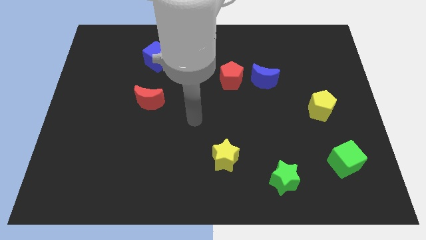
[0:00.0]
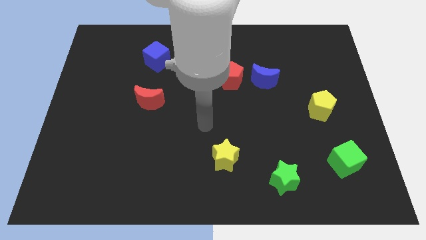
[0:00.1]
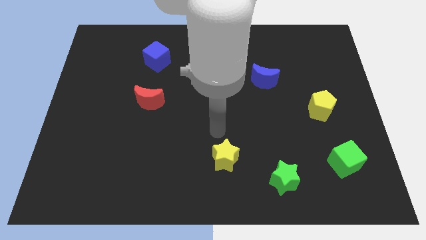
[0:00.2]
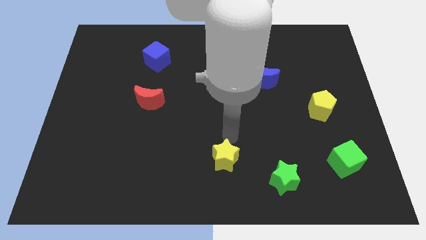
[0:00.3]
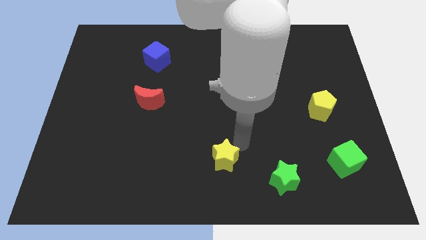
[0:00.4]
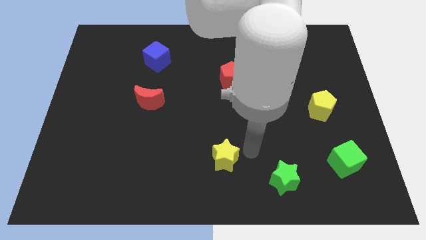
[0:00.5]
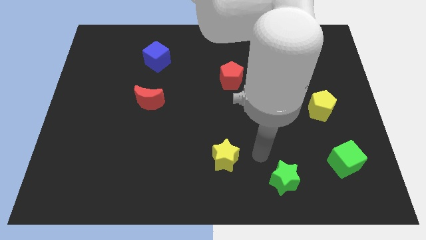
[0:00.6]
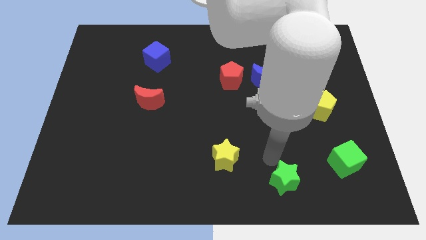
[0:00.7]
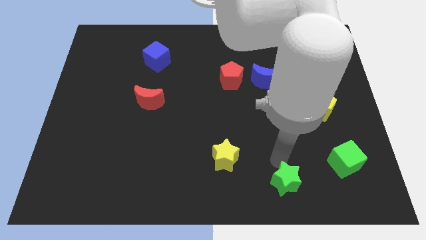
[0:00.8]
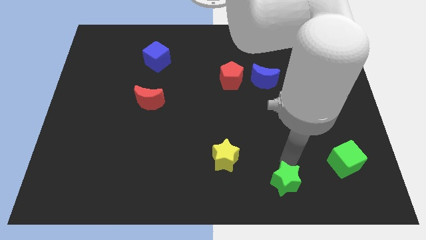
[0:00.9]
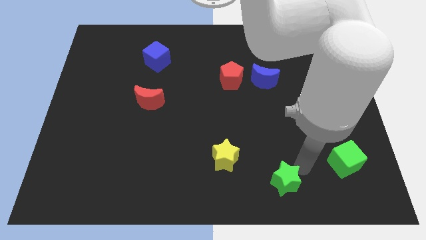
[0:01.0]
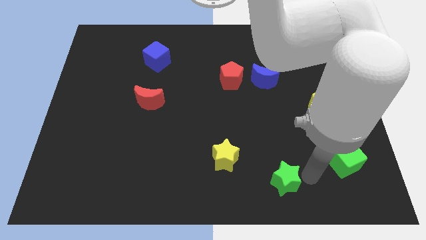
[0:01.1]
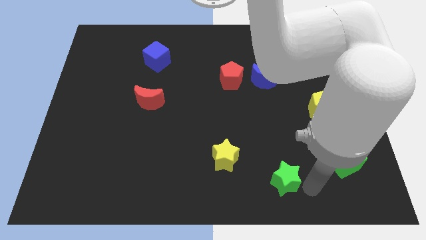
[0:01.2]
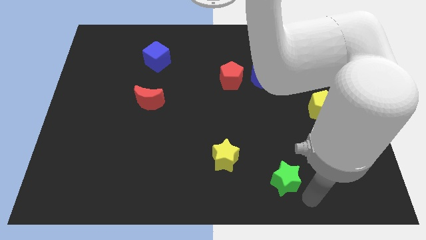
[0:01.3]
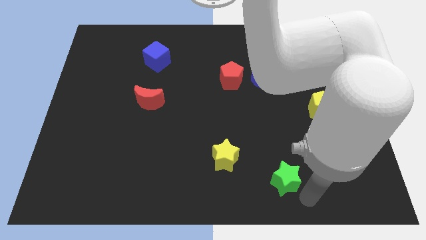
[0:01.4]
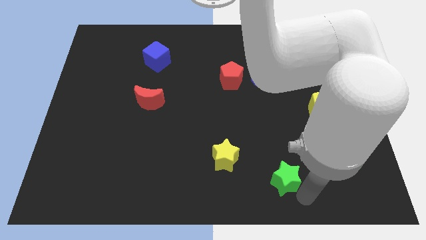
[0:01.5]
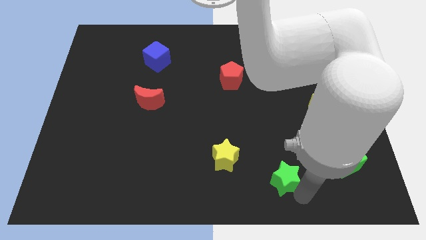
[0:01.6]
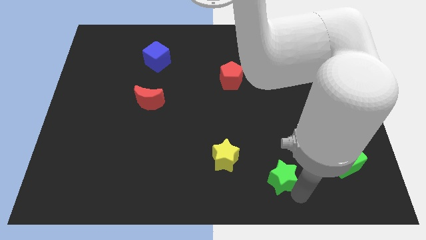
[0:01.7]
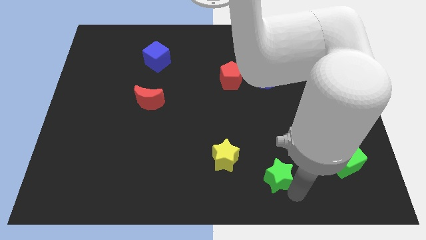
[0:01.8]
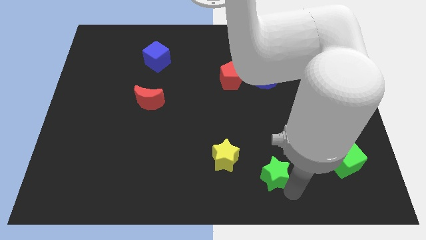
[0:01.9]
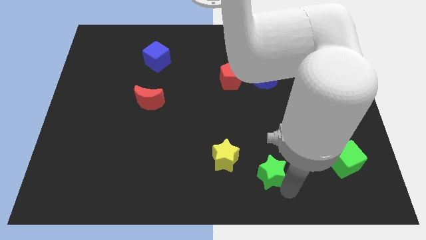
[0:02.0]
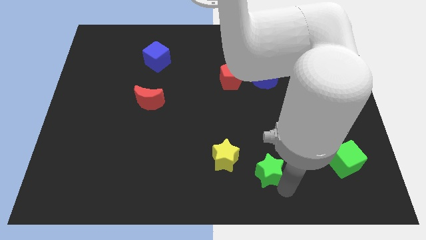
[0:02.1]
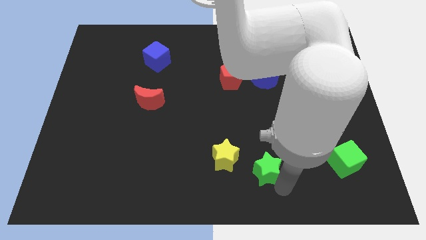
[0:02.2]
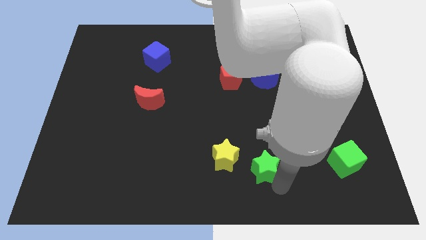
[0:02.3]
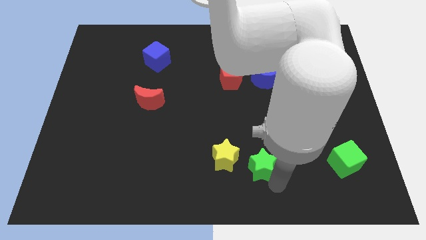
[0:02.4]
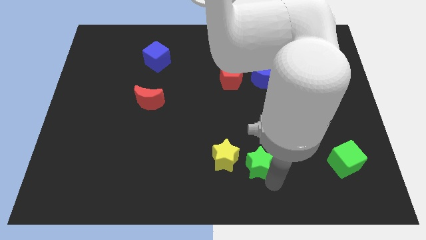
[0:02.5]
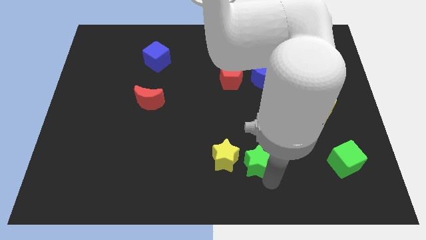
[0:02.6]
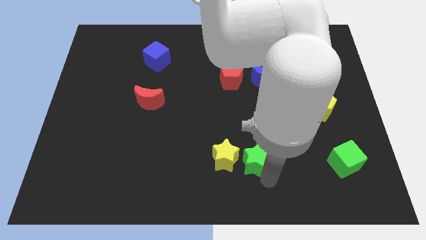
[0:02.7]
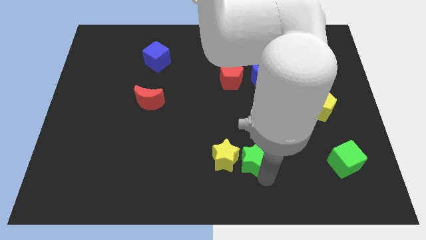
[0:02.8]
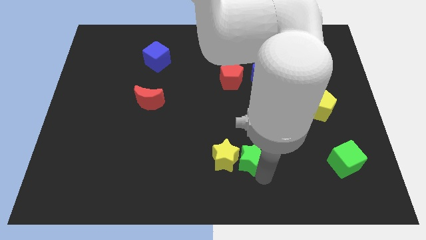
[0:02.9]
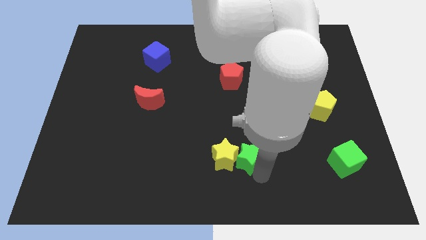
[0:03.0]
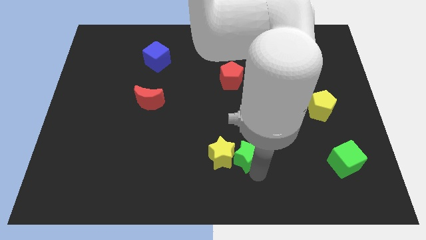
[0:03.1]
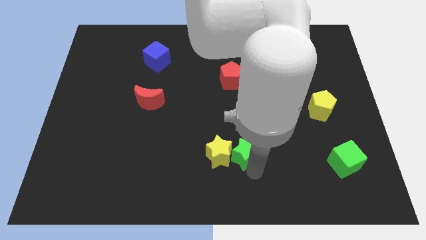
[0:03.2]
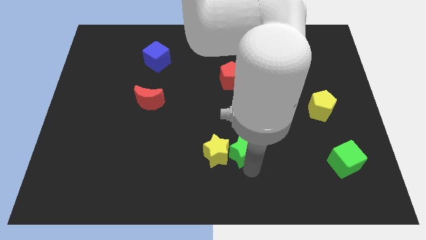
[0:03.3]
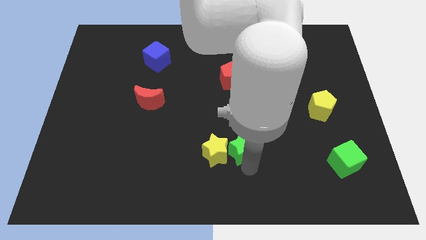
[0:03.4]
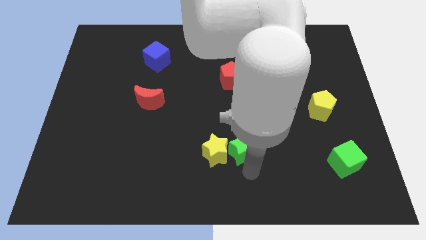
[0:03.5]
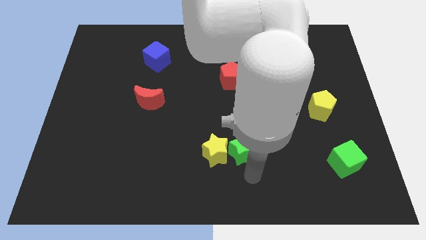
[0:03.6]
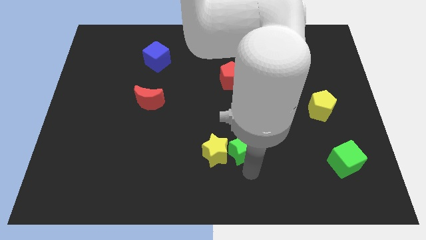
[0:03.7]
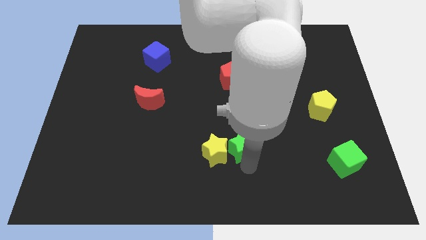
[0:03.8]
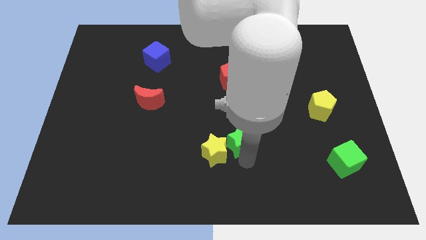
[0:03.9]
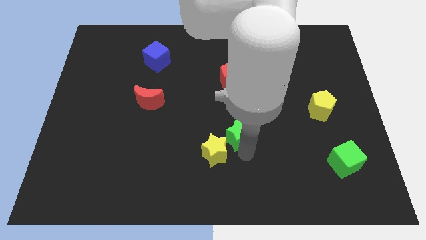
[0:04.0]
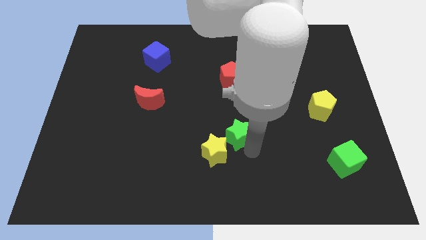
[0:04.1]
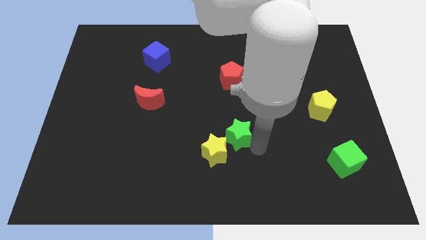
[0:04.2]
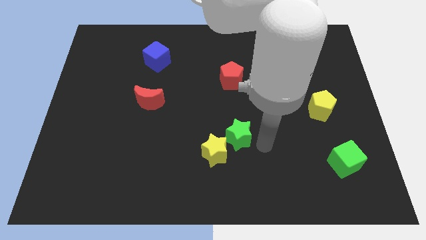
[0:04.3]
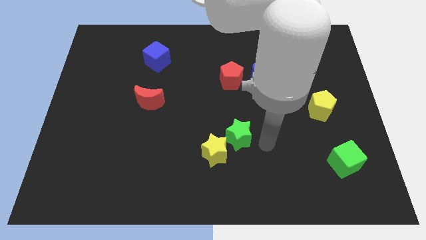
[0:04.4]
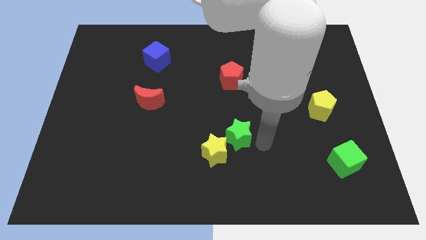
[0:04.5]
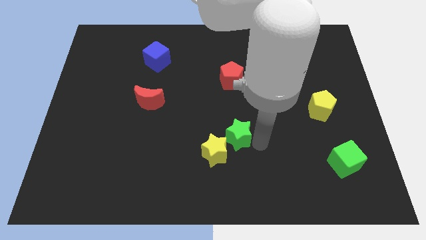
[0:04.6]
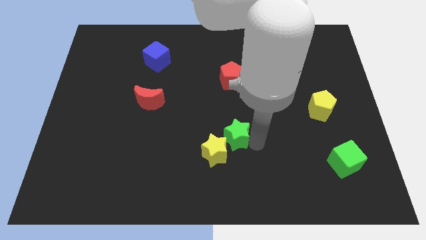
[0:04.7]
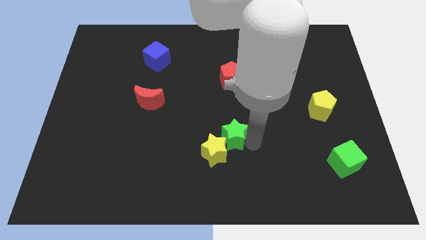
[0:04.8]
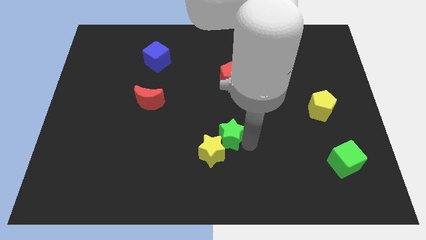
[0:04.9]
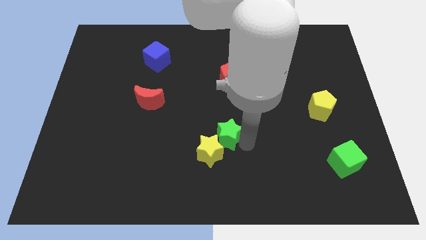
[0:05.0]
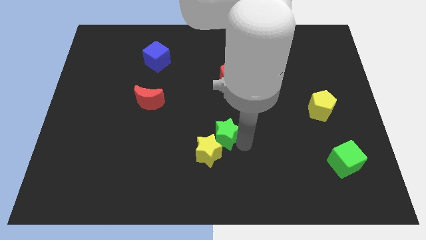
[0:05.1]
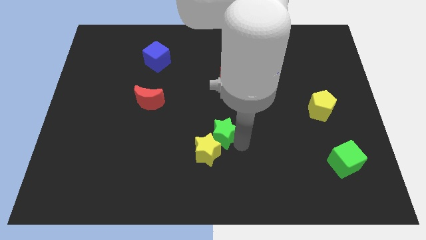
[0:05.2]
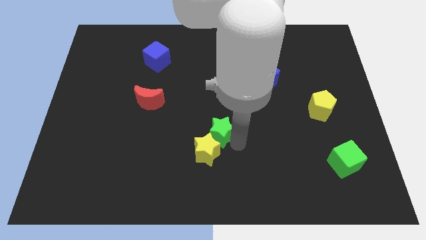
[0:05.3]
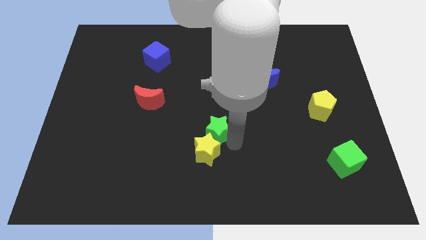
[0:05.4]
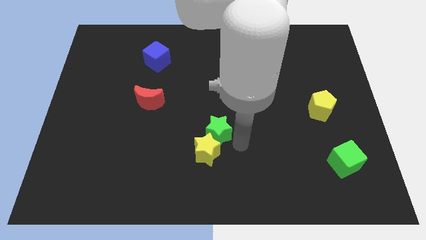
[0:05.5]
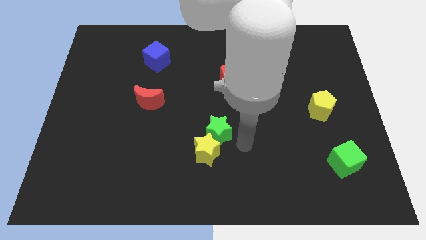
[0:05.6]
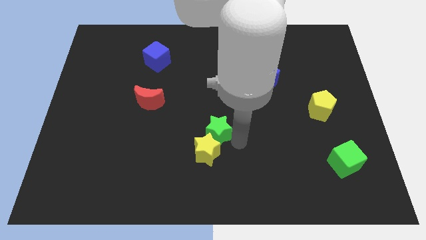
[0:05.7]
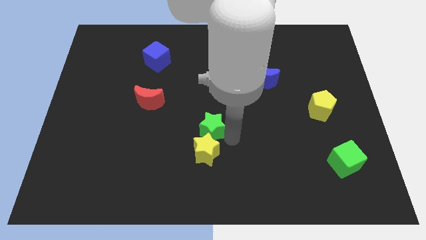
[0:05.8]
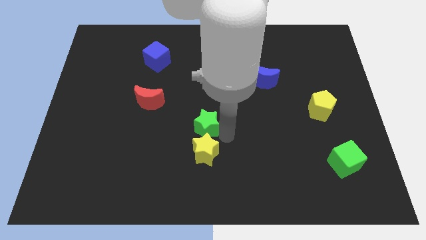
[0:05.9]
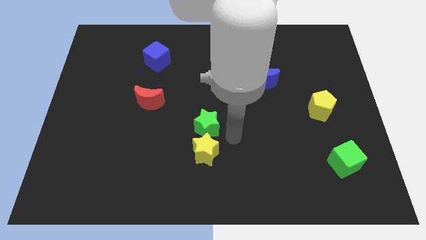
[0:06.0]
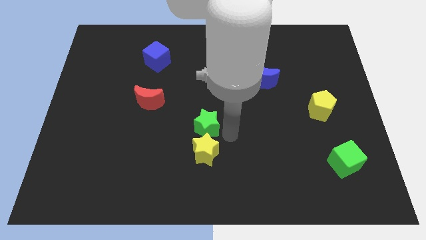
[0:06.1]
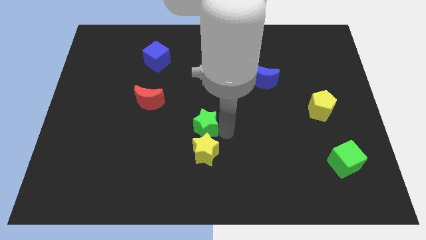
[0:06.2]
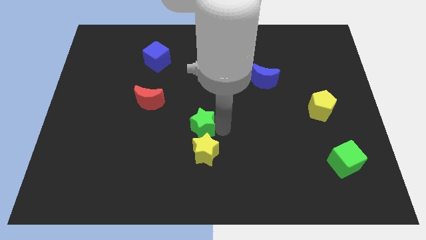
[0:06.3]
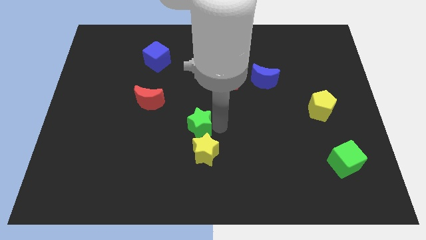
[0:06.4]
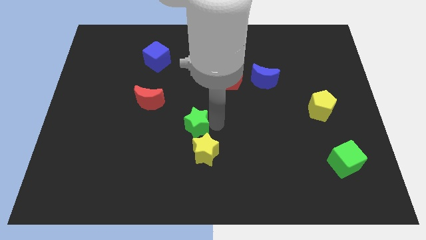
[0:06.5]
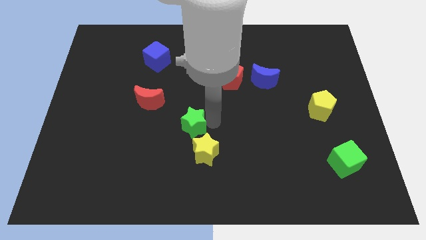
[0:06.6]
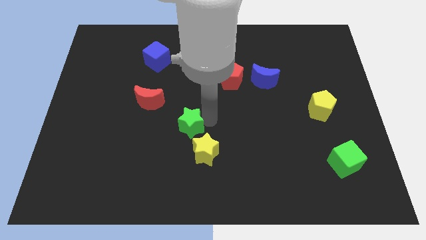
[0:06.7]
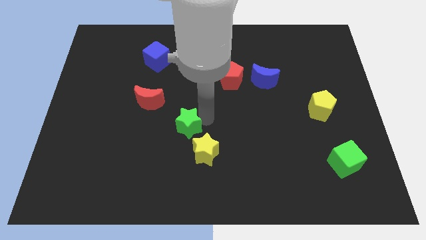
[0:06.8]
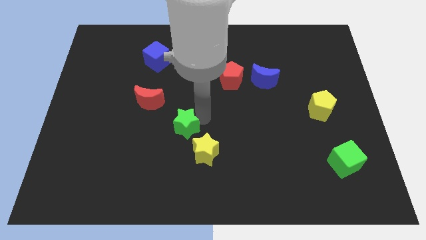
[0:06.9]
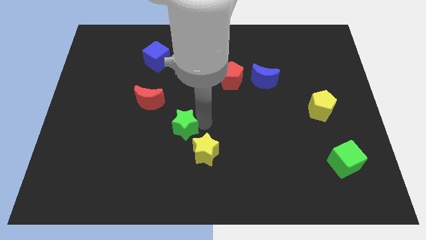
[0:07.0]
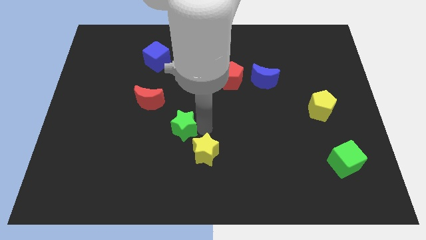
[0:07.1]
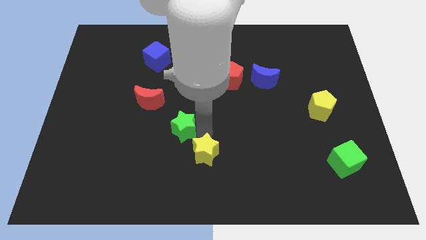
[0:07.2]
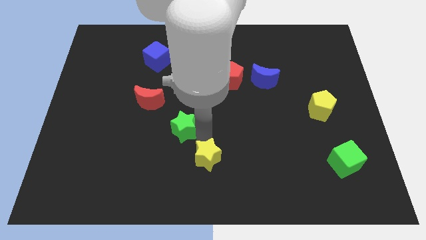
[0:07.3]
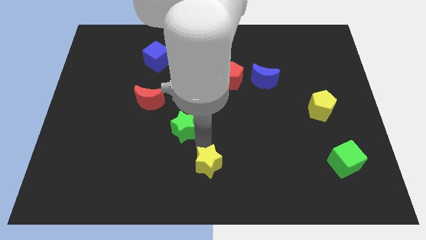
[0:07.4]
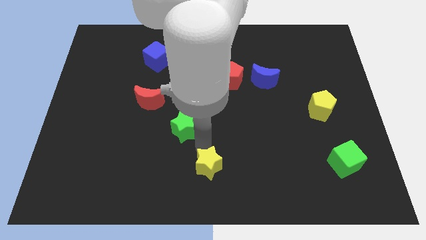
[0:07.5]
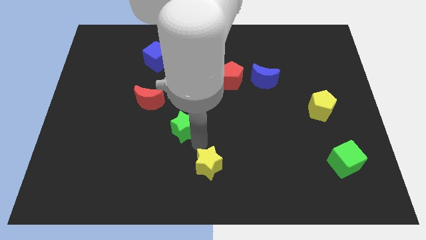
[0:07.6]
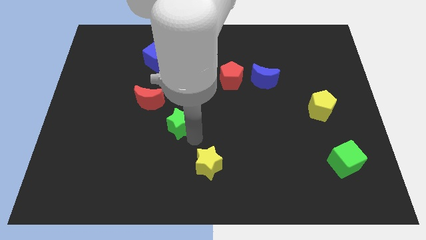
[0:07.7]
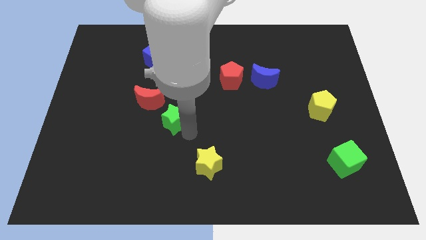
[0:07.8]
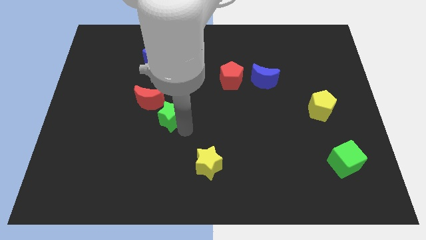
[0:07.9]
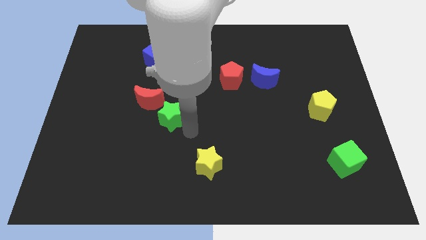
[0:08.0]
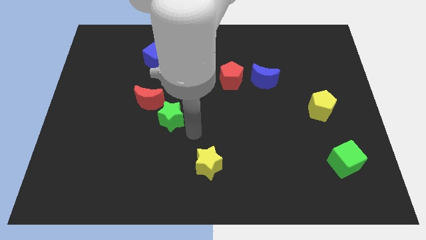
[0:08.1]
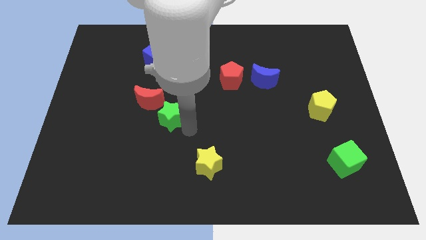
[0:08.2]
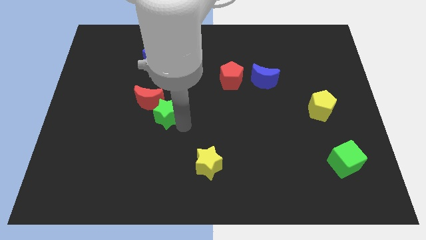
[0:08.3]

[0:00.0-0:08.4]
slide the green star to the red moon
